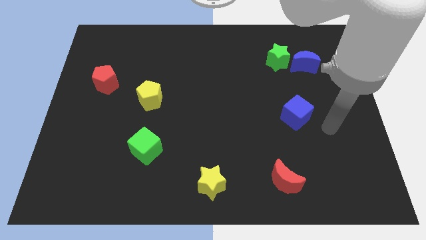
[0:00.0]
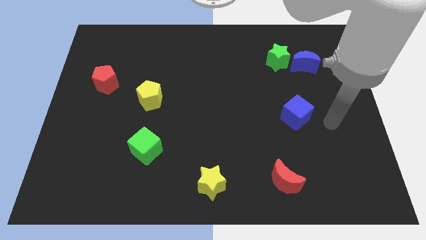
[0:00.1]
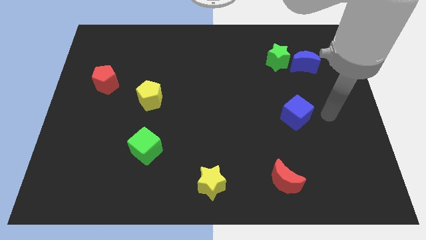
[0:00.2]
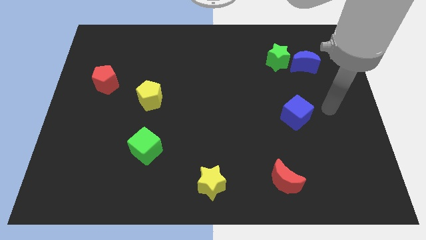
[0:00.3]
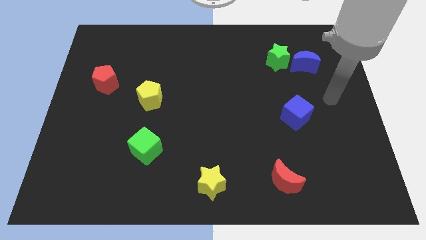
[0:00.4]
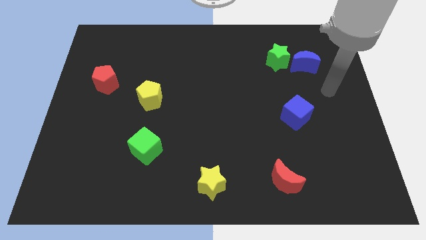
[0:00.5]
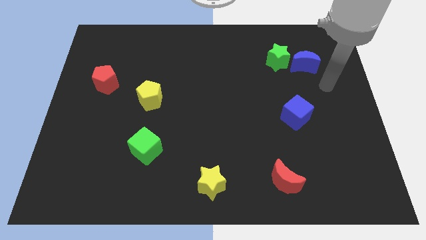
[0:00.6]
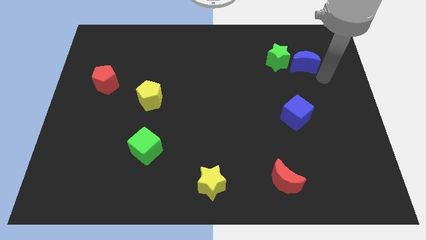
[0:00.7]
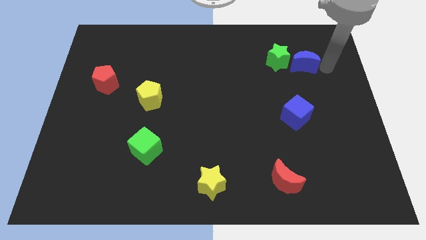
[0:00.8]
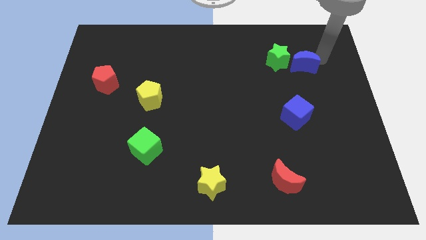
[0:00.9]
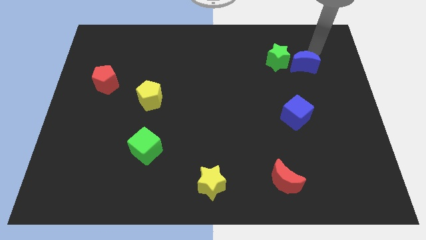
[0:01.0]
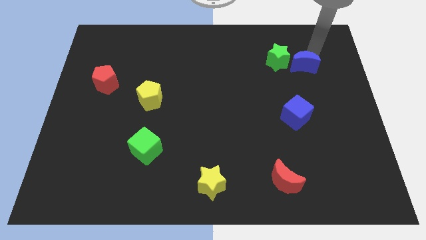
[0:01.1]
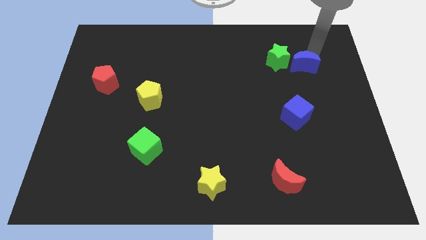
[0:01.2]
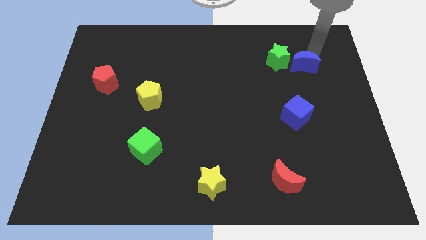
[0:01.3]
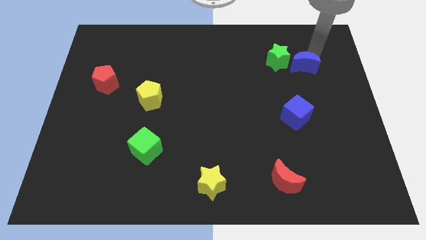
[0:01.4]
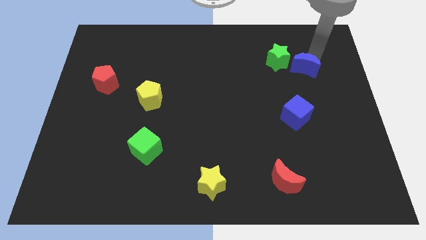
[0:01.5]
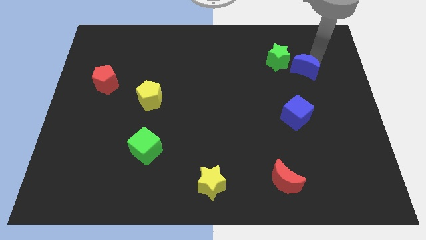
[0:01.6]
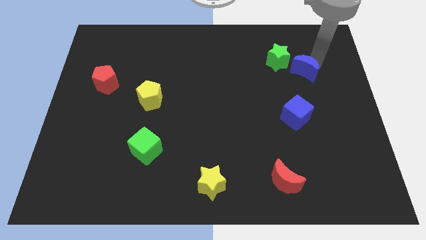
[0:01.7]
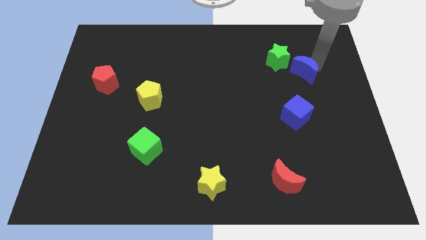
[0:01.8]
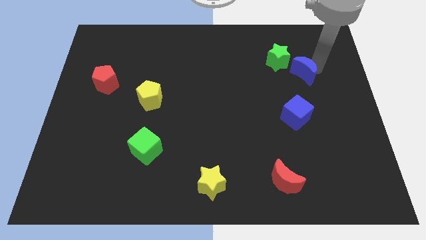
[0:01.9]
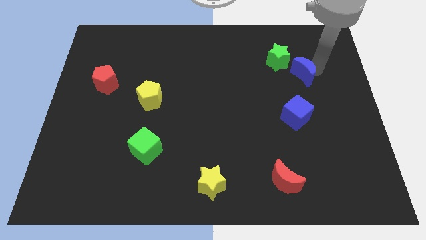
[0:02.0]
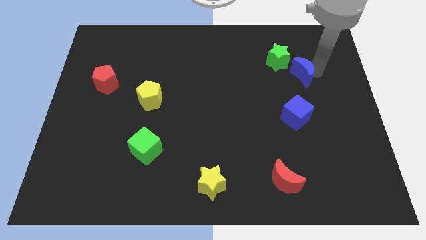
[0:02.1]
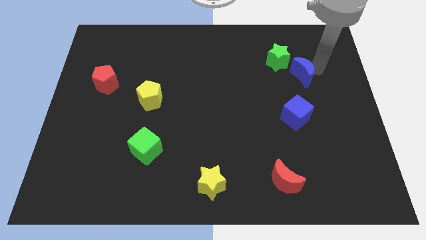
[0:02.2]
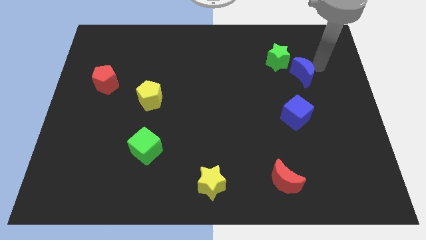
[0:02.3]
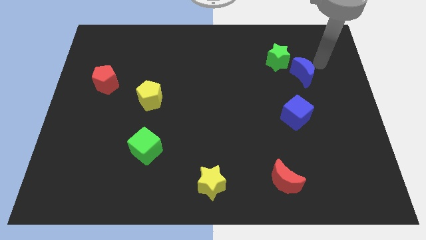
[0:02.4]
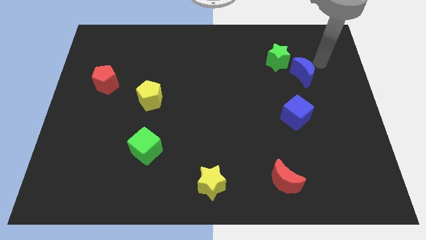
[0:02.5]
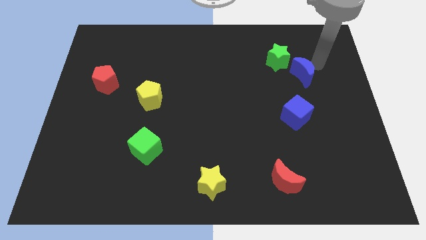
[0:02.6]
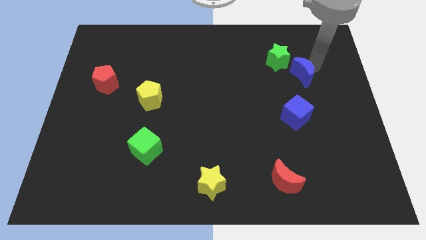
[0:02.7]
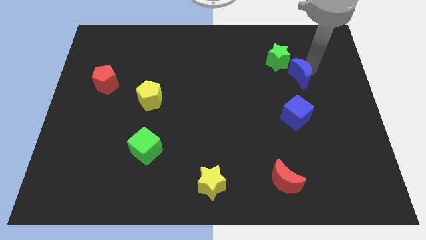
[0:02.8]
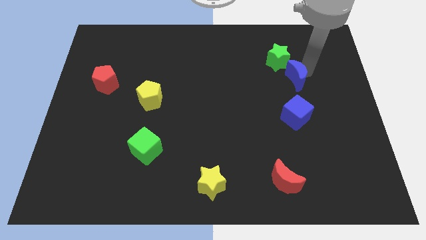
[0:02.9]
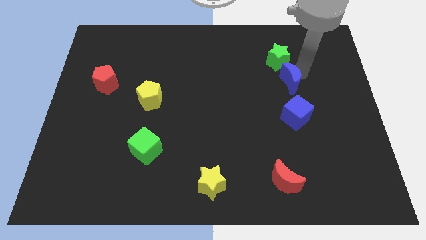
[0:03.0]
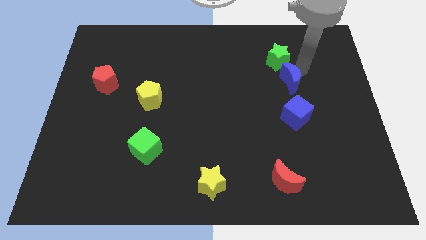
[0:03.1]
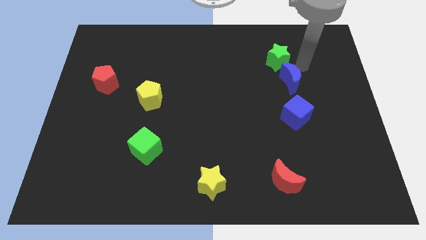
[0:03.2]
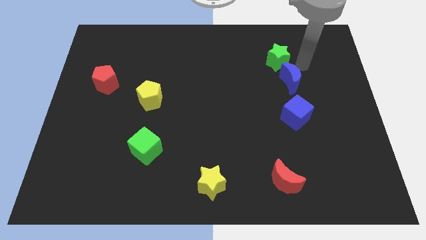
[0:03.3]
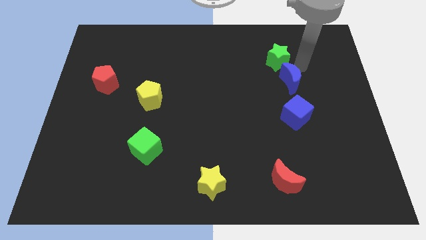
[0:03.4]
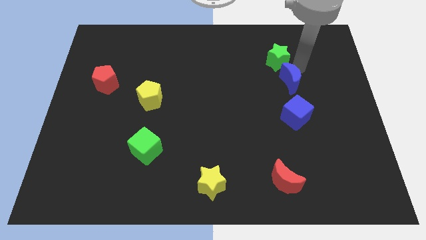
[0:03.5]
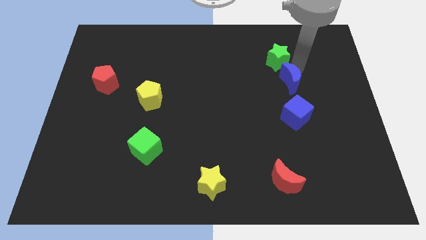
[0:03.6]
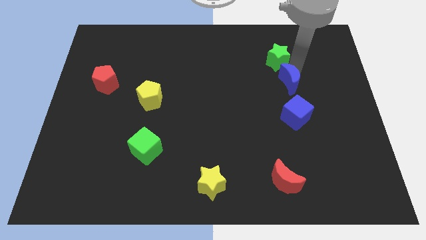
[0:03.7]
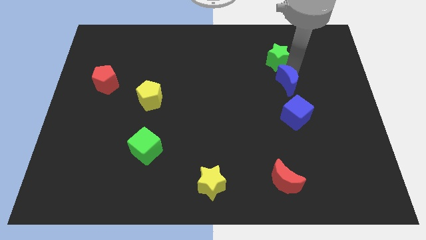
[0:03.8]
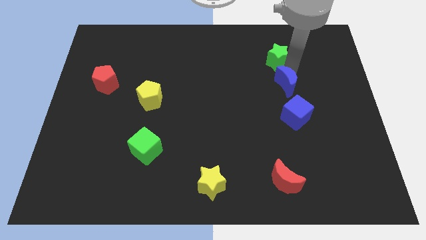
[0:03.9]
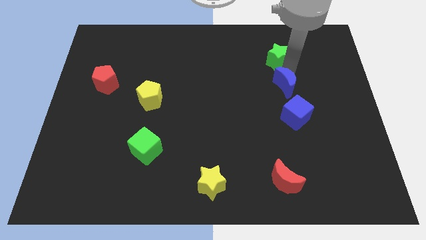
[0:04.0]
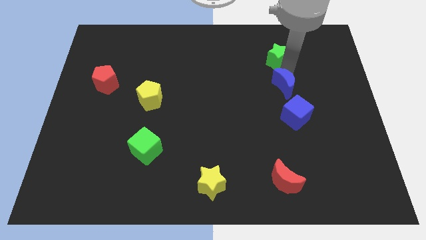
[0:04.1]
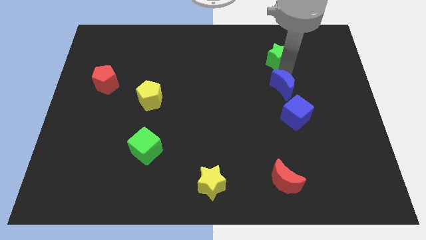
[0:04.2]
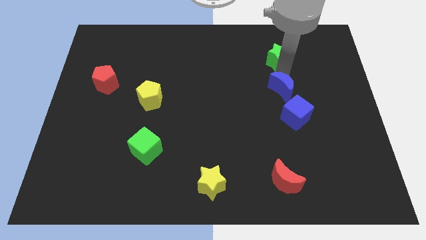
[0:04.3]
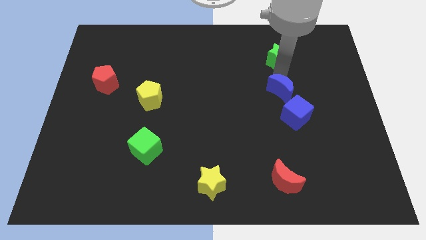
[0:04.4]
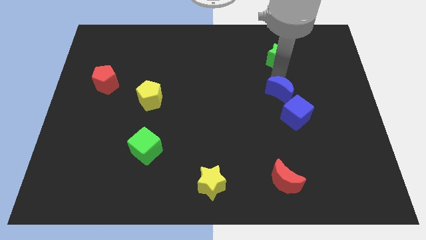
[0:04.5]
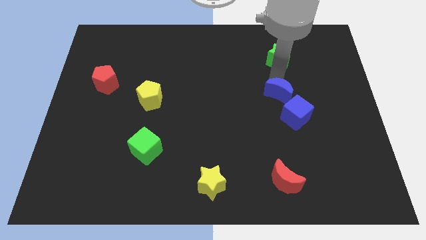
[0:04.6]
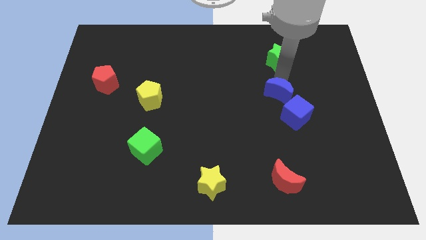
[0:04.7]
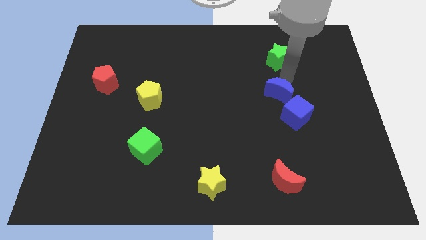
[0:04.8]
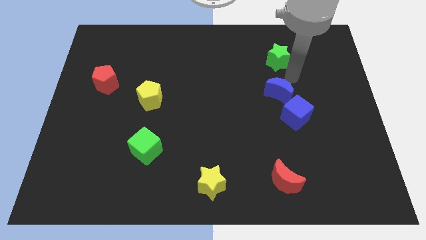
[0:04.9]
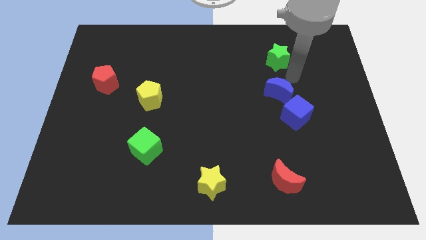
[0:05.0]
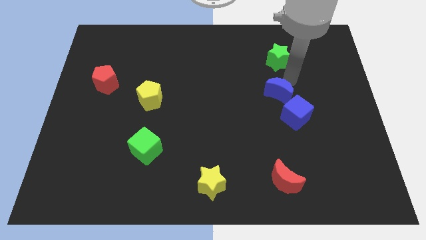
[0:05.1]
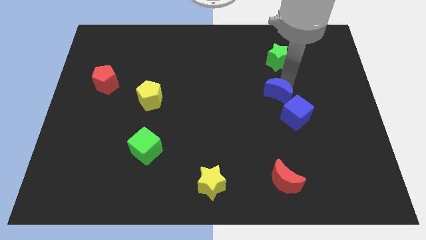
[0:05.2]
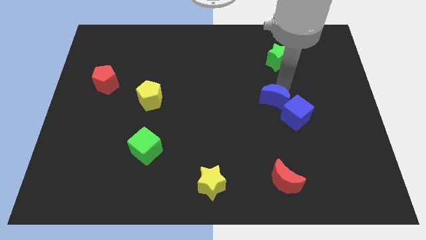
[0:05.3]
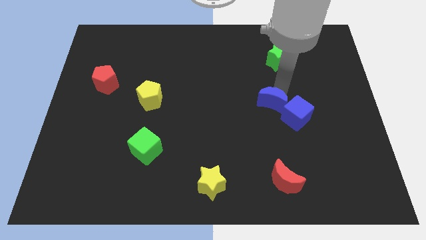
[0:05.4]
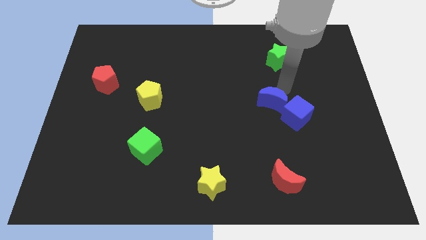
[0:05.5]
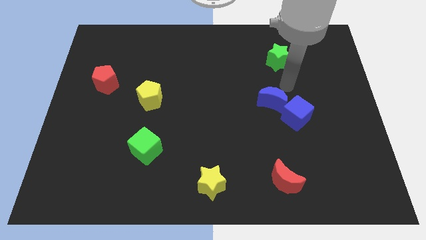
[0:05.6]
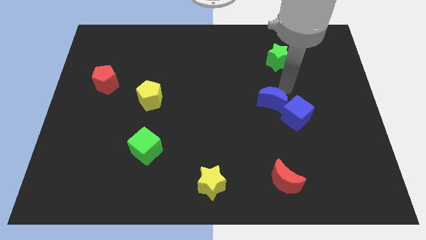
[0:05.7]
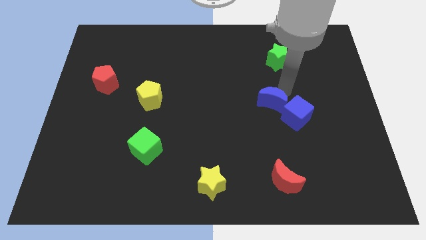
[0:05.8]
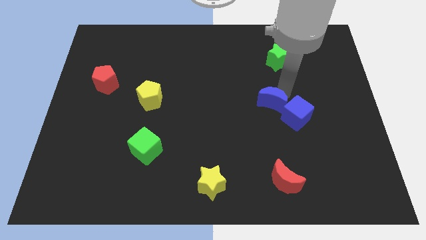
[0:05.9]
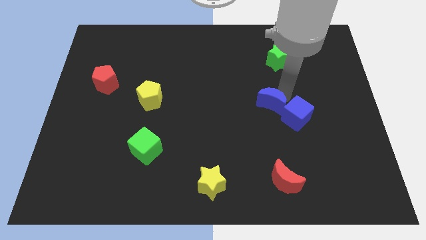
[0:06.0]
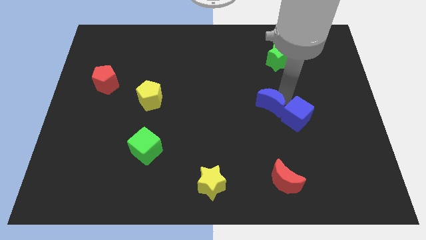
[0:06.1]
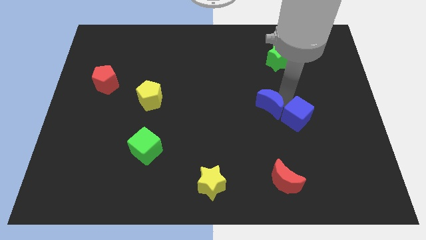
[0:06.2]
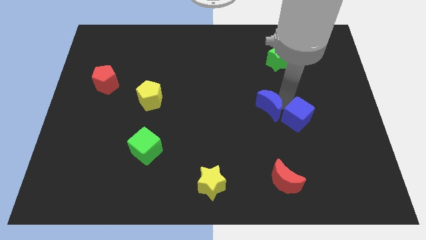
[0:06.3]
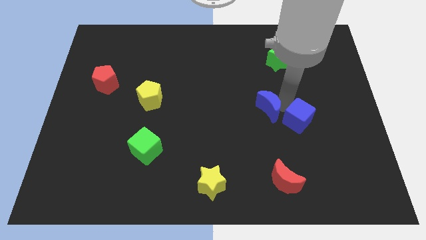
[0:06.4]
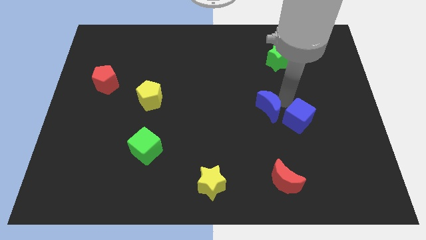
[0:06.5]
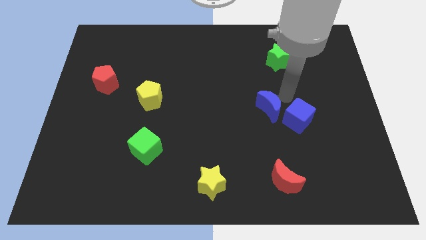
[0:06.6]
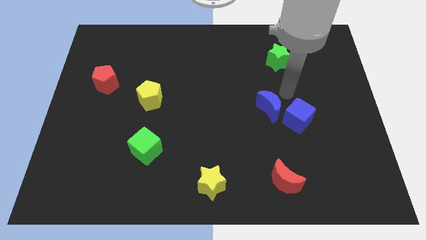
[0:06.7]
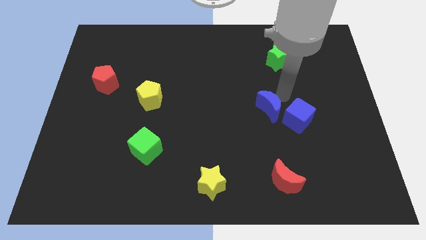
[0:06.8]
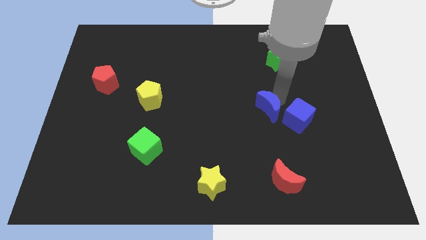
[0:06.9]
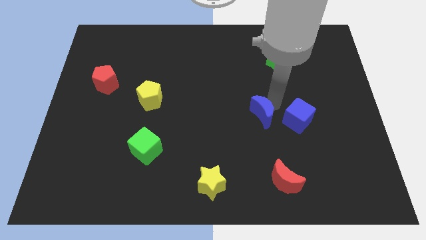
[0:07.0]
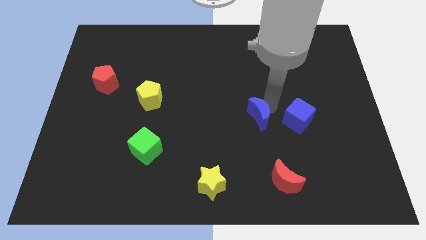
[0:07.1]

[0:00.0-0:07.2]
slide the blue moon diagonally down and left

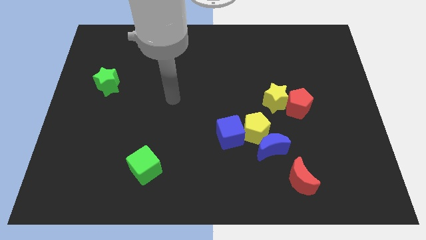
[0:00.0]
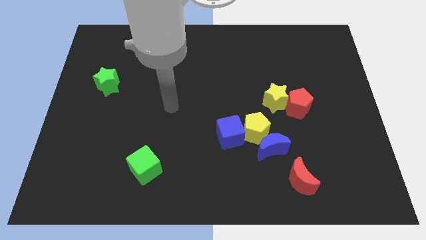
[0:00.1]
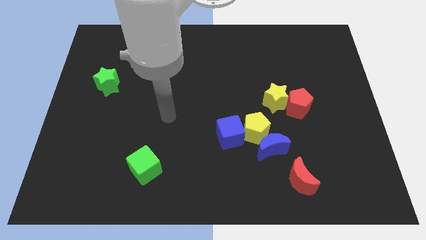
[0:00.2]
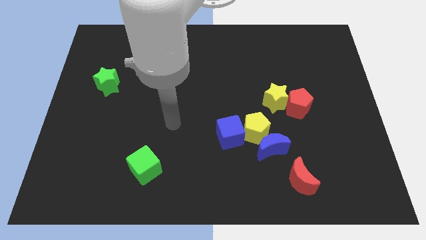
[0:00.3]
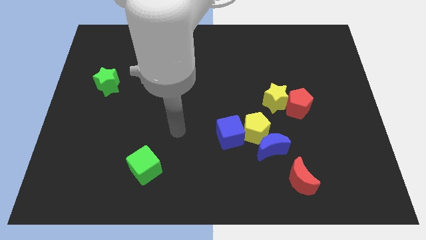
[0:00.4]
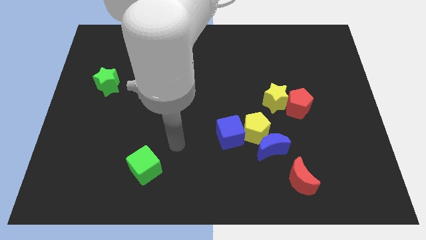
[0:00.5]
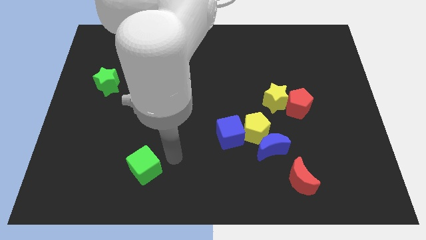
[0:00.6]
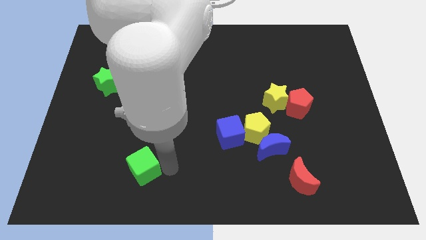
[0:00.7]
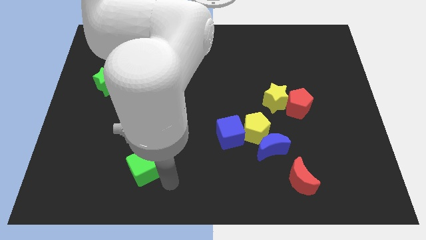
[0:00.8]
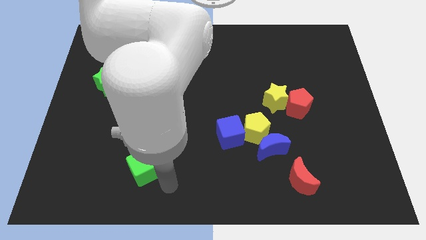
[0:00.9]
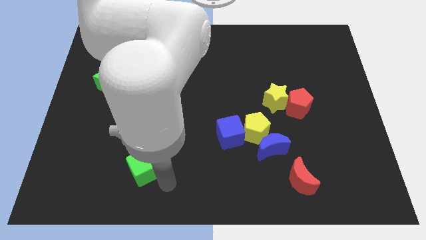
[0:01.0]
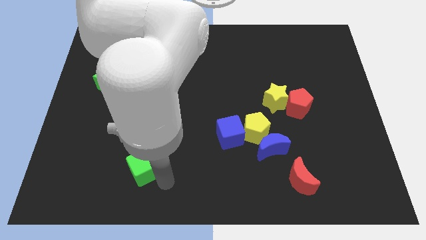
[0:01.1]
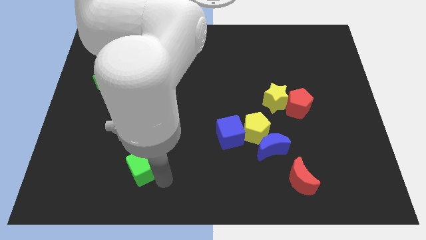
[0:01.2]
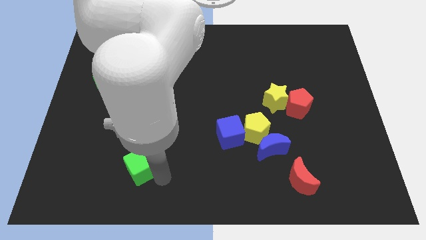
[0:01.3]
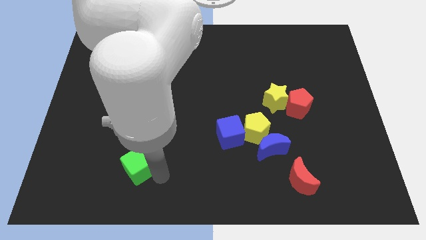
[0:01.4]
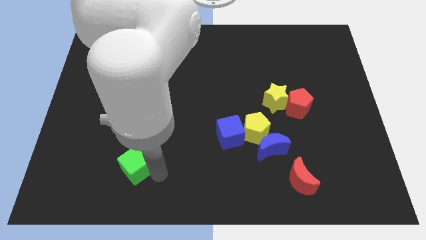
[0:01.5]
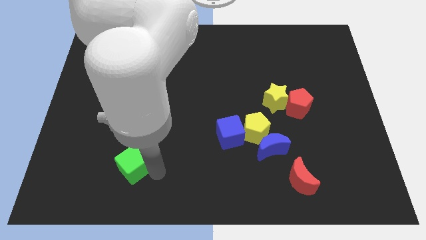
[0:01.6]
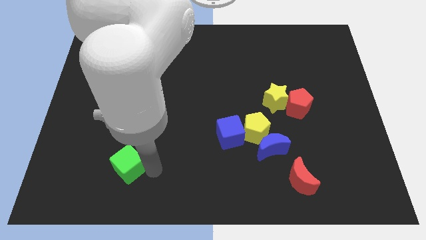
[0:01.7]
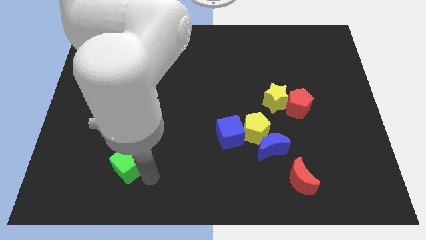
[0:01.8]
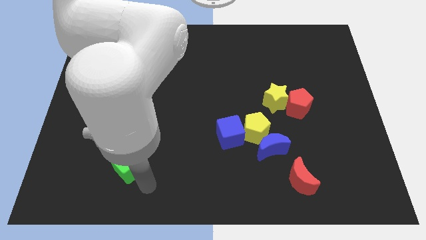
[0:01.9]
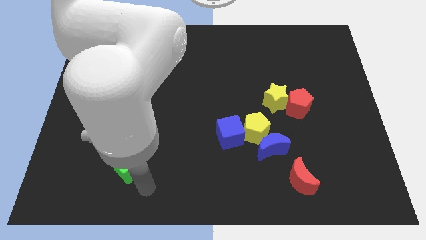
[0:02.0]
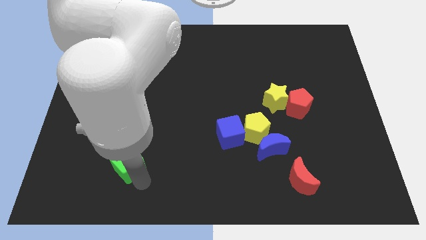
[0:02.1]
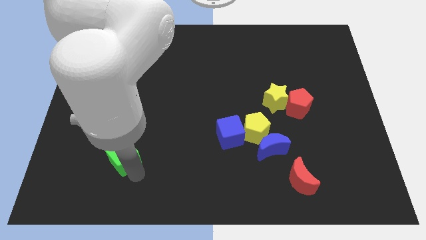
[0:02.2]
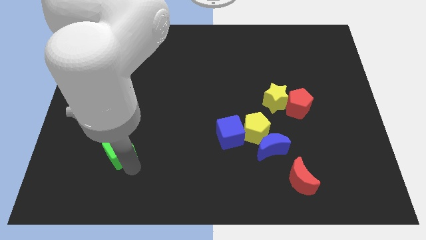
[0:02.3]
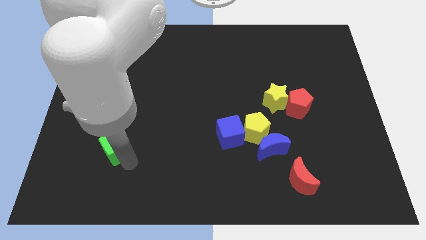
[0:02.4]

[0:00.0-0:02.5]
move the green cube a little diagonally up and to the left
